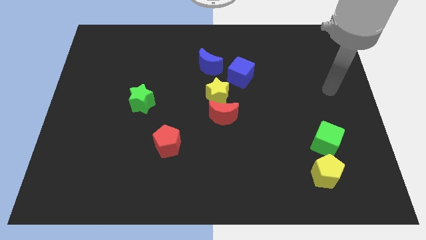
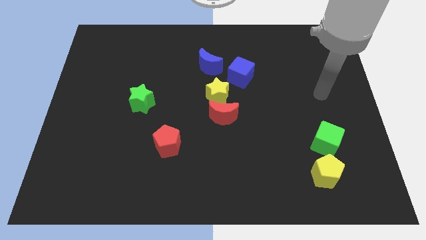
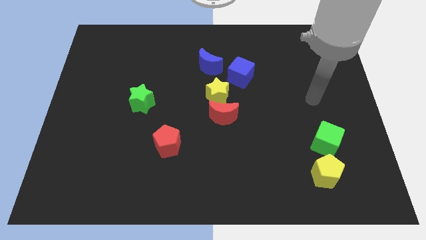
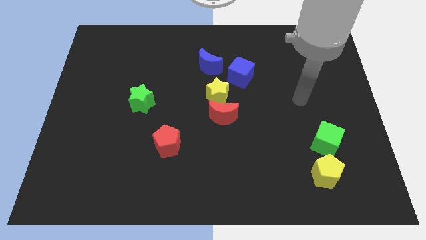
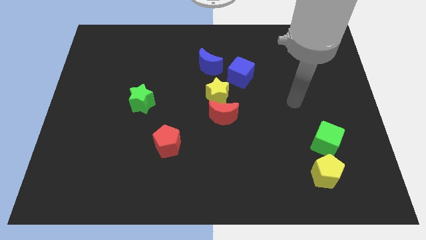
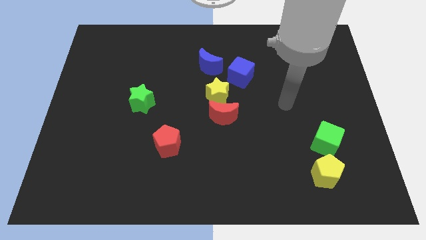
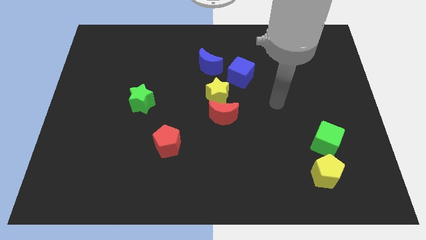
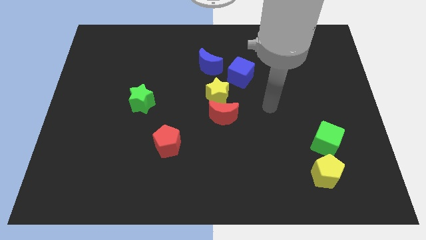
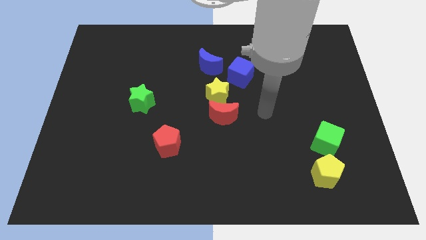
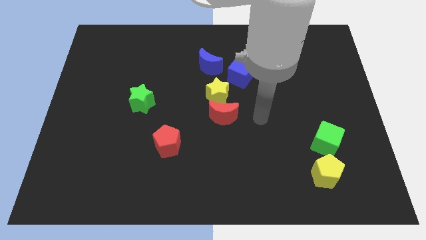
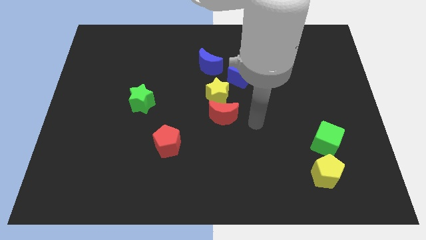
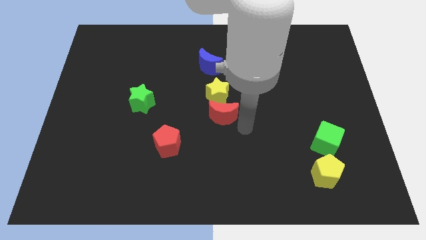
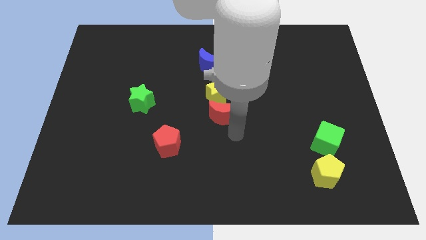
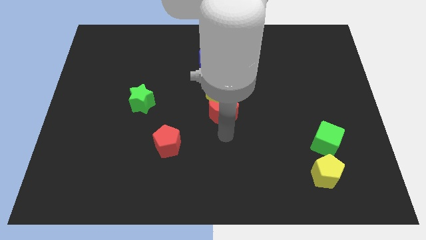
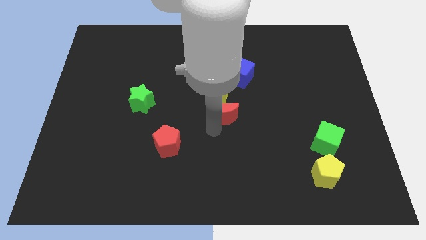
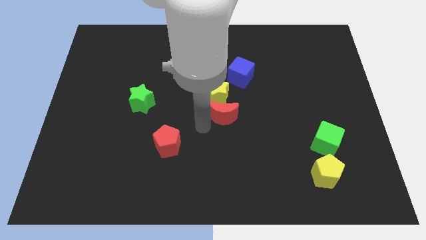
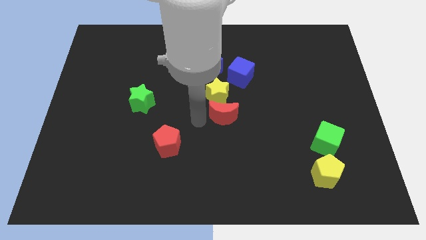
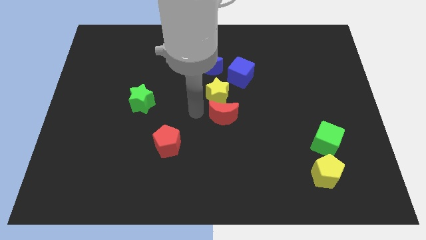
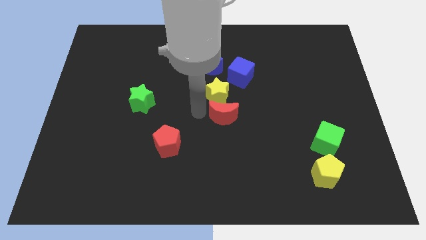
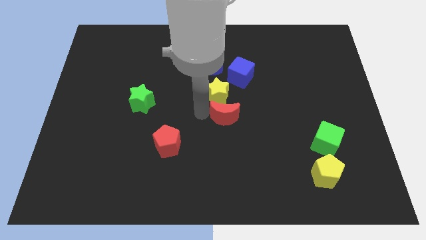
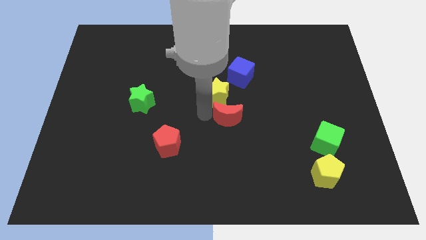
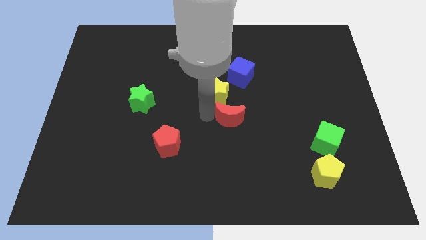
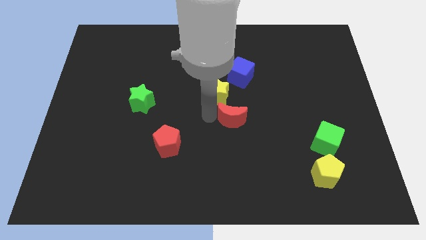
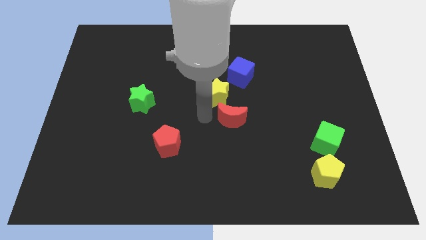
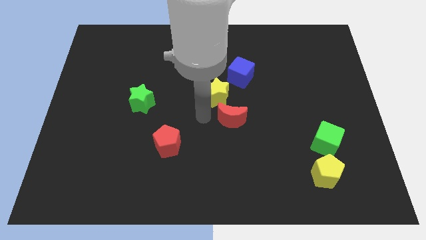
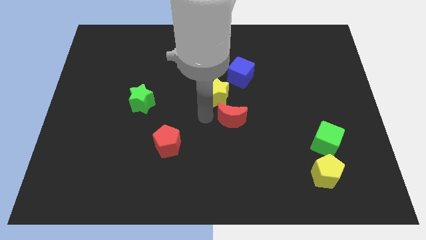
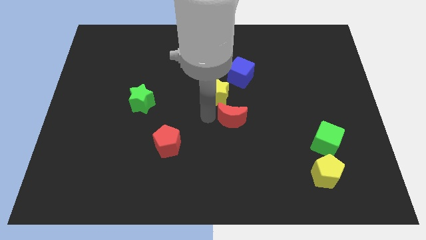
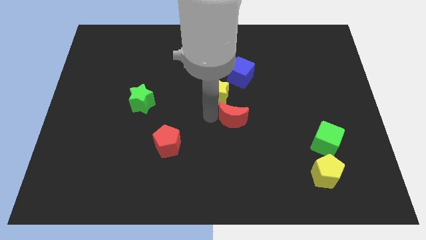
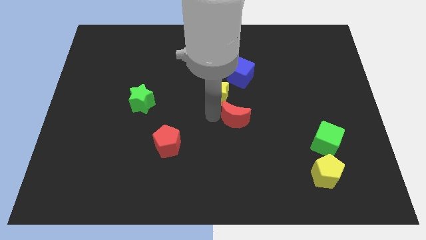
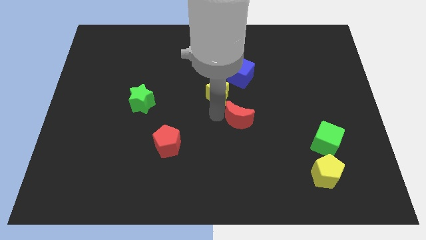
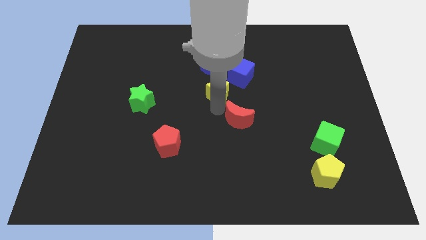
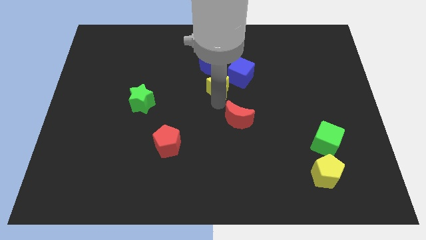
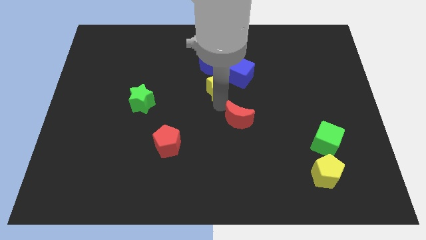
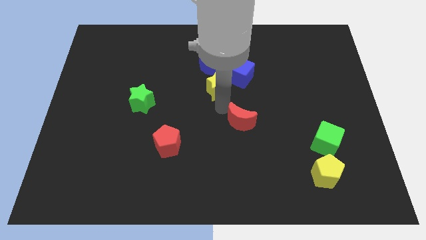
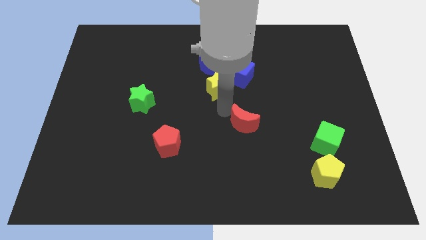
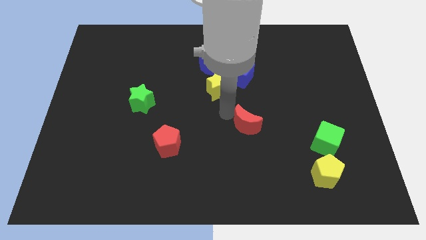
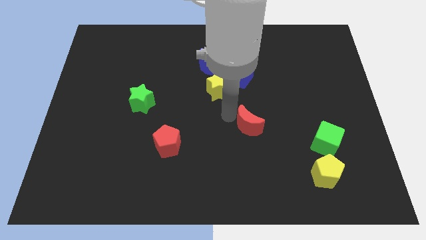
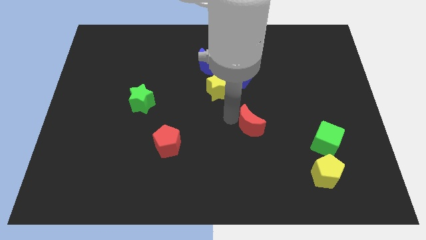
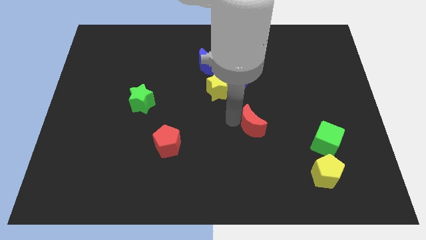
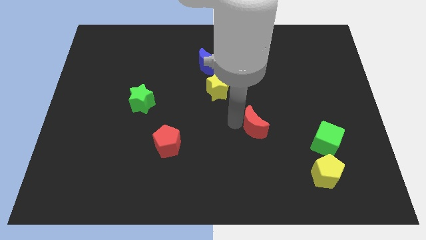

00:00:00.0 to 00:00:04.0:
move the red moon a little downwards and to the right

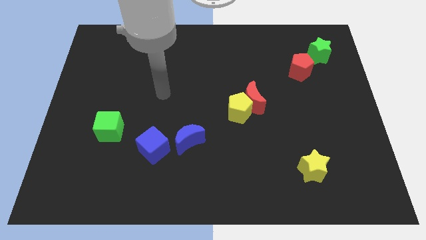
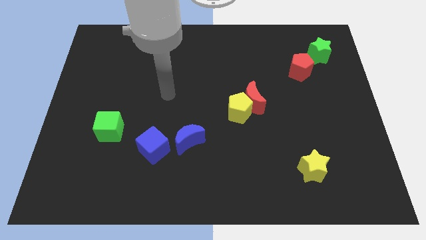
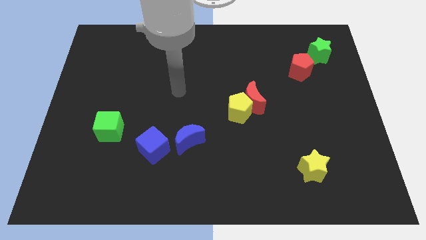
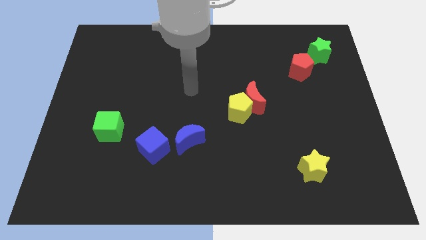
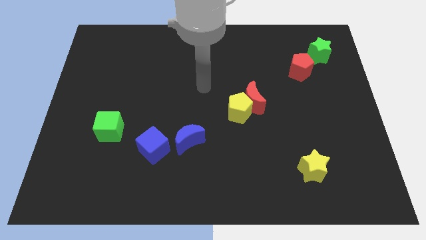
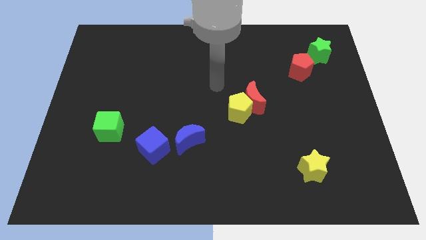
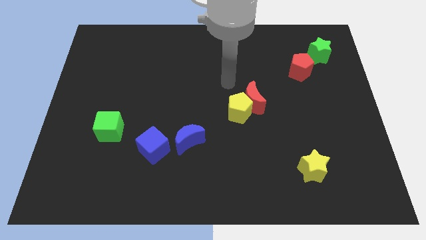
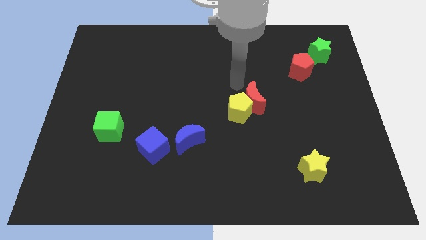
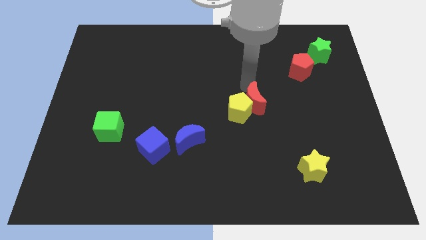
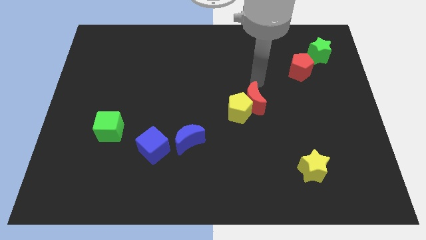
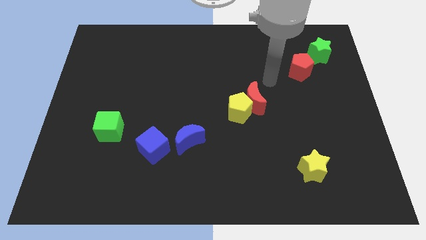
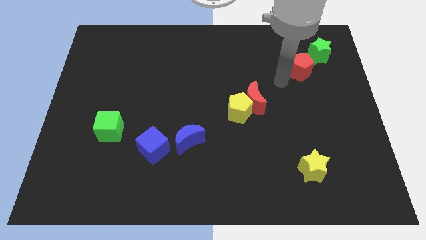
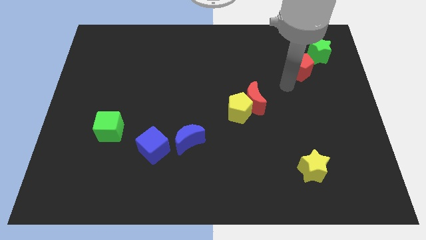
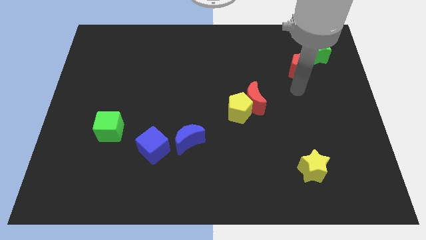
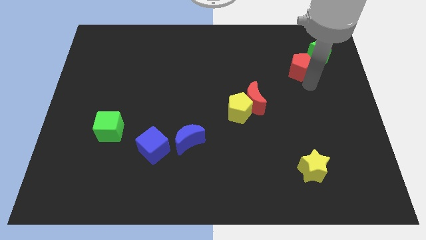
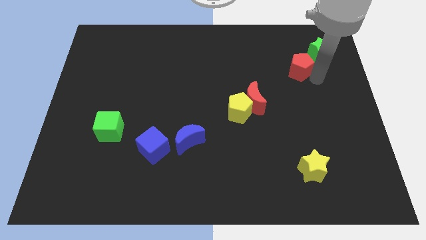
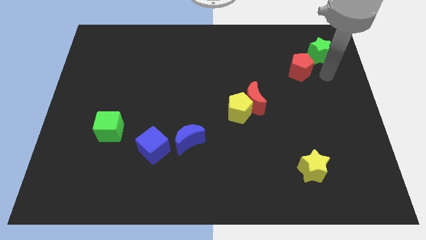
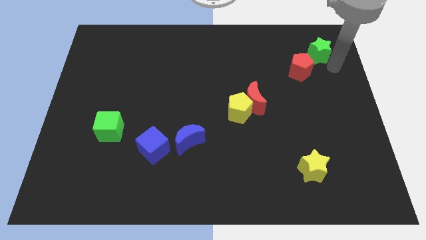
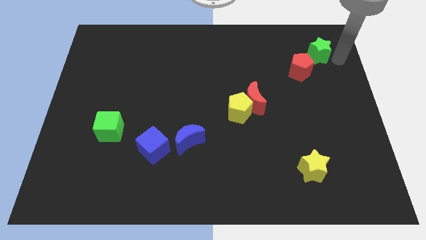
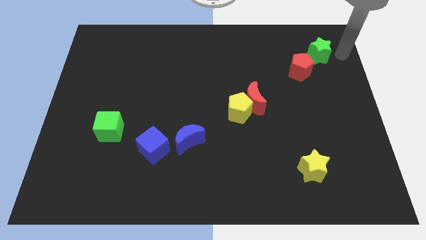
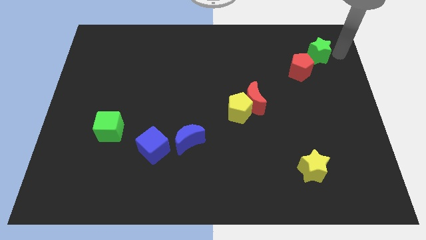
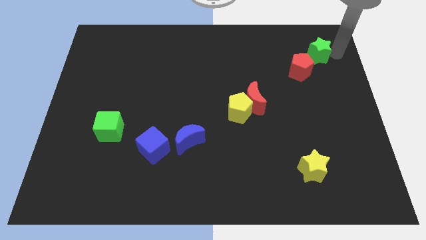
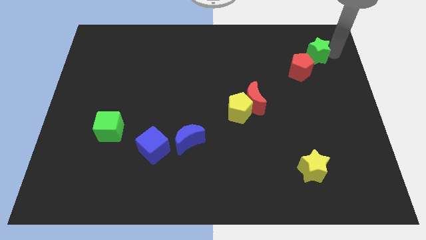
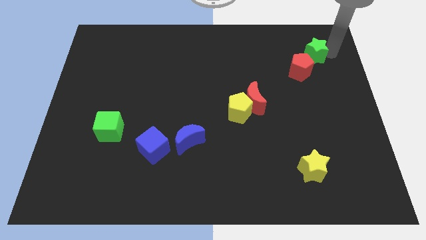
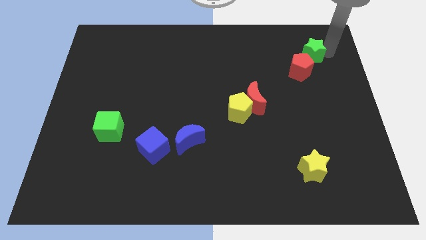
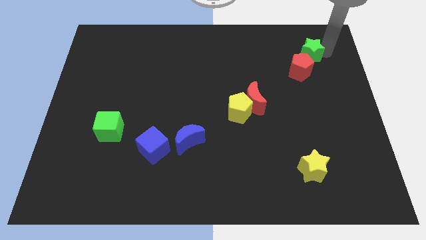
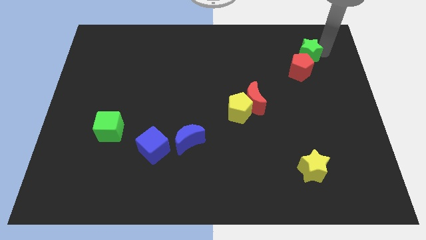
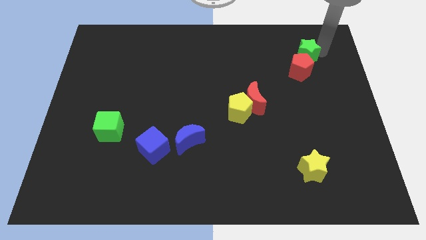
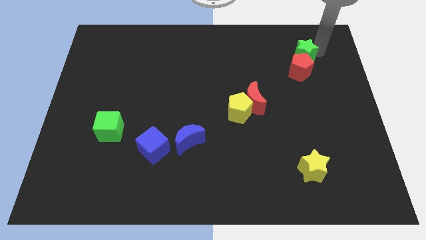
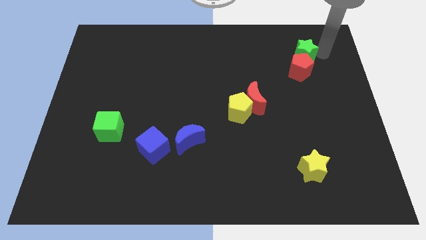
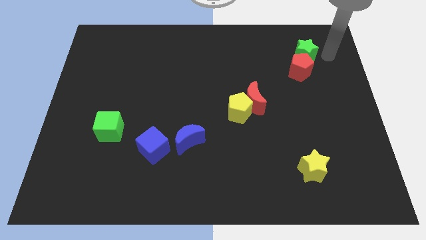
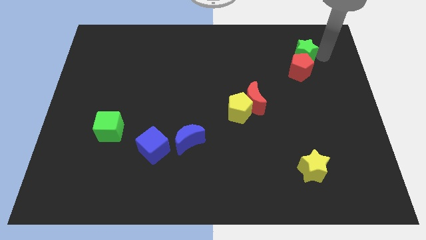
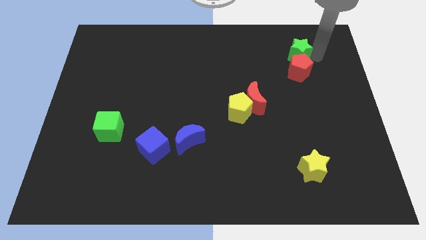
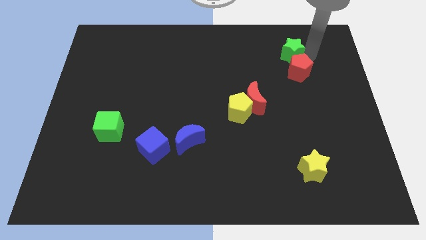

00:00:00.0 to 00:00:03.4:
slightly slide the green star to the left

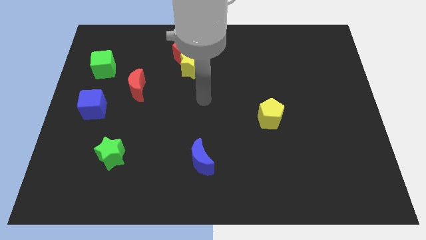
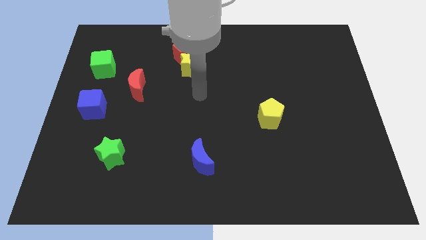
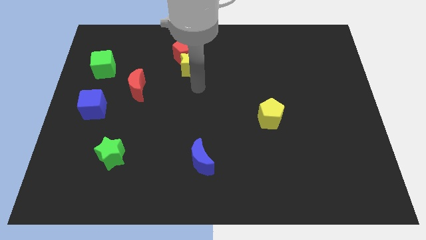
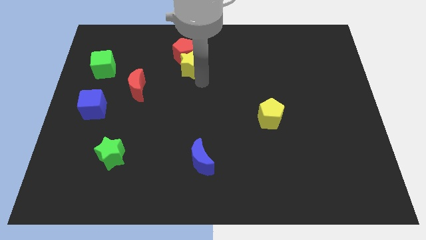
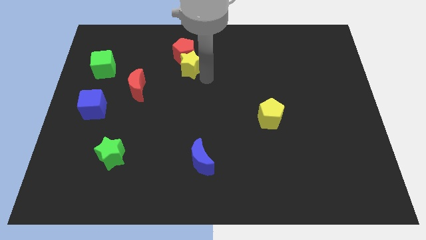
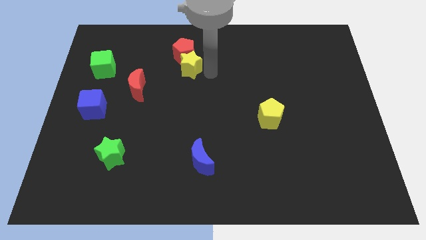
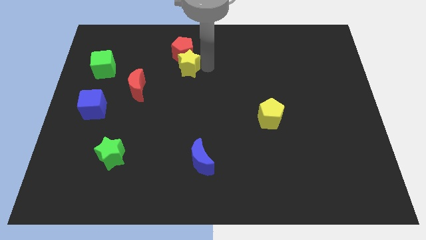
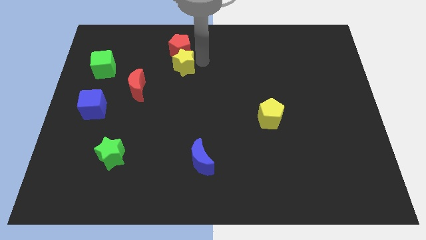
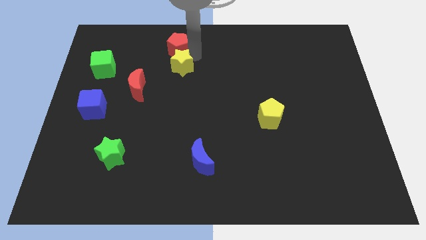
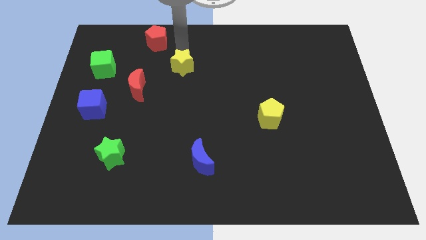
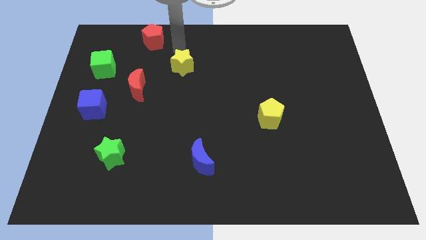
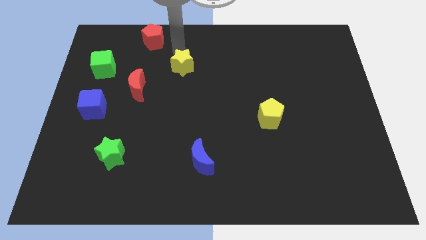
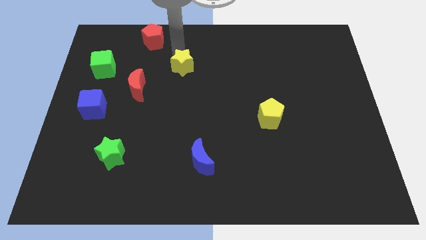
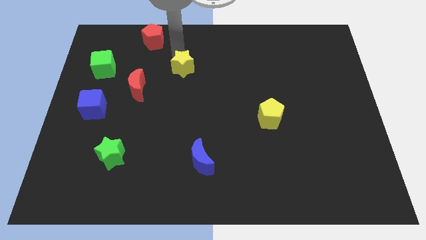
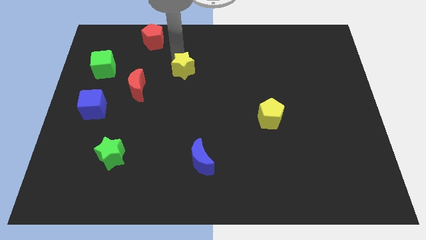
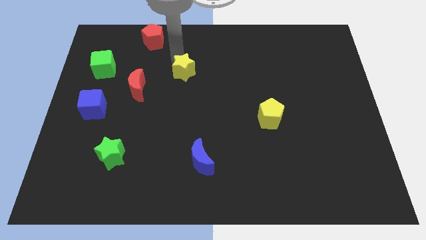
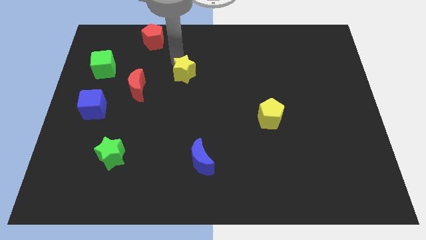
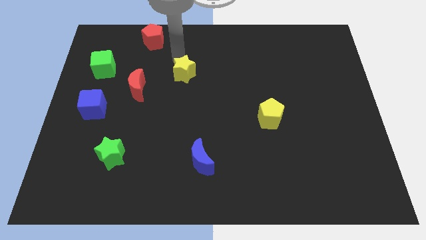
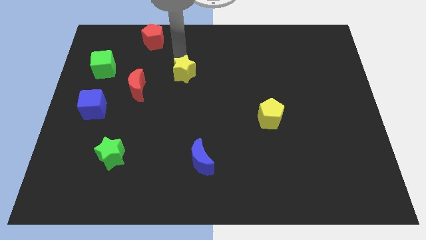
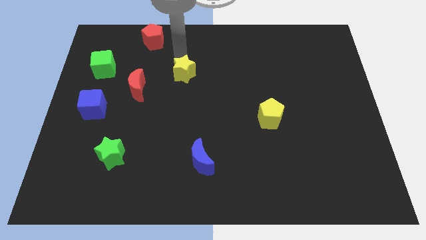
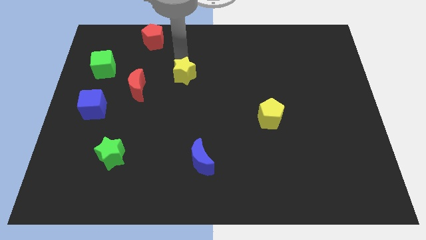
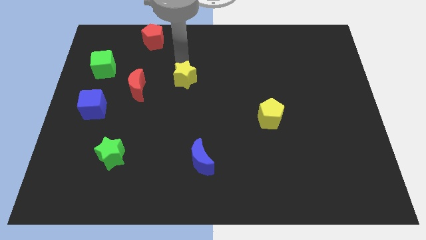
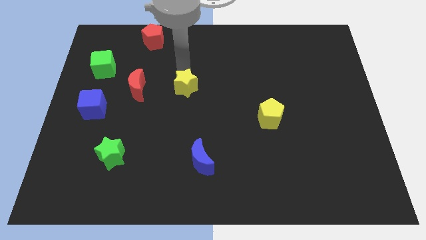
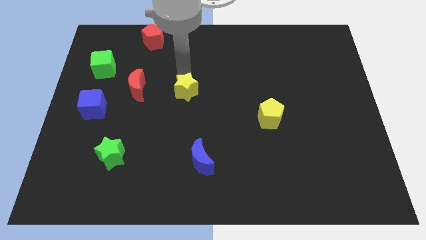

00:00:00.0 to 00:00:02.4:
push the yellow star slightly down
